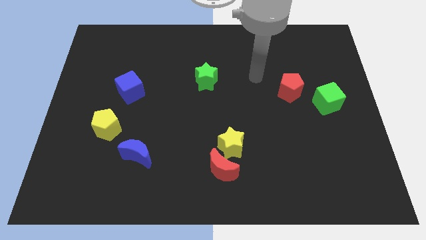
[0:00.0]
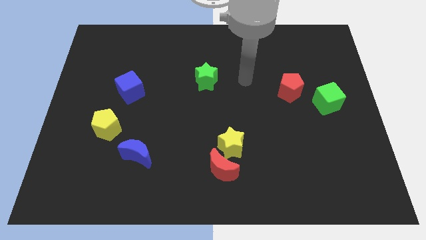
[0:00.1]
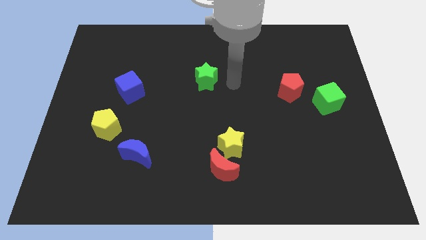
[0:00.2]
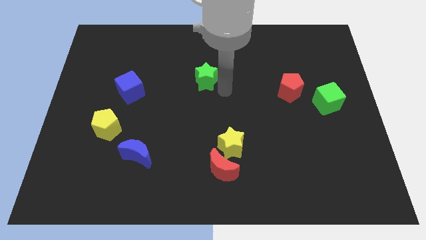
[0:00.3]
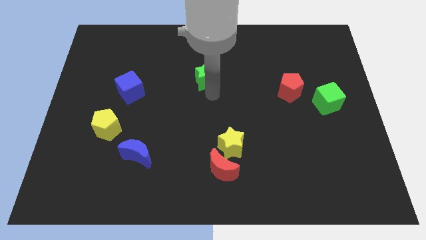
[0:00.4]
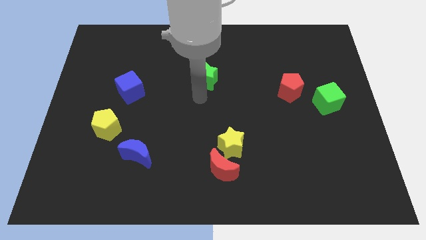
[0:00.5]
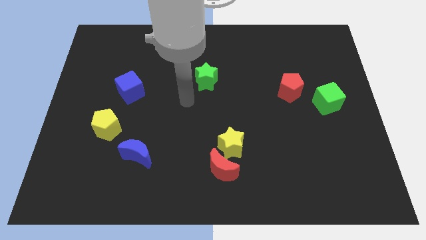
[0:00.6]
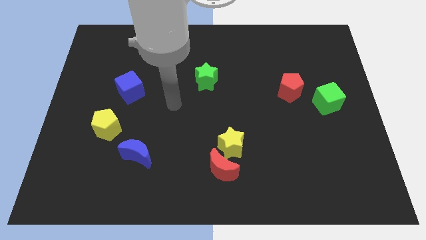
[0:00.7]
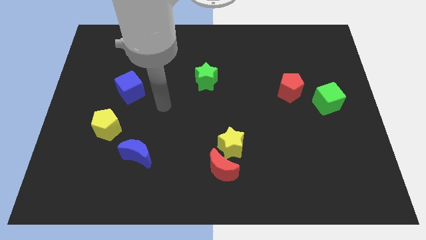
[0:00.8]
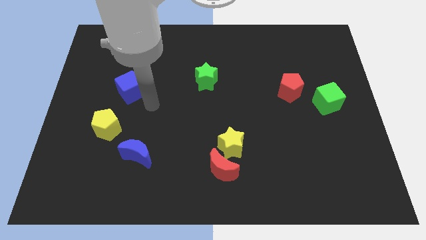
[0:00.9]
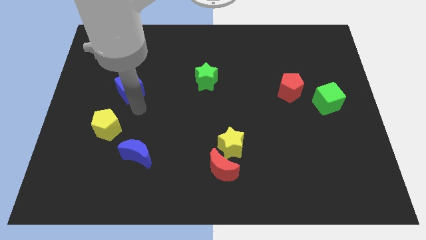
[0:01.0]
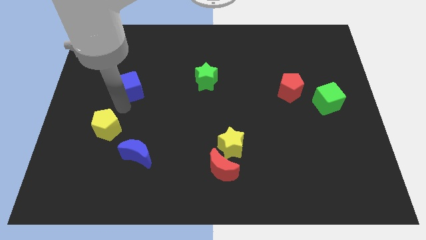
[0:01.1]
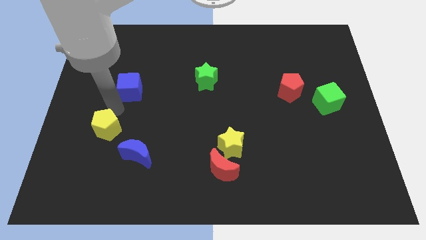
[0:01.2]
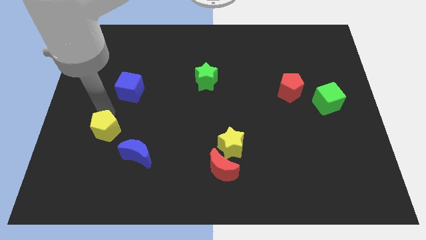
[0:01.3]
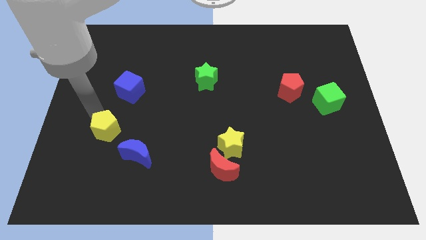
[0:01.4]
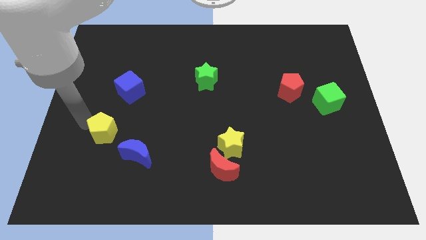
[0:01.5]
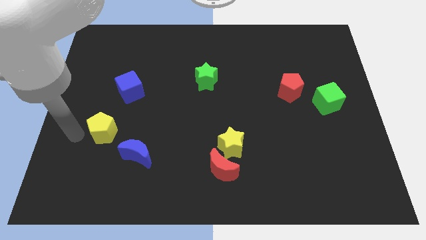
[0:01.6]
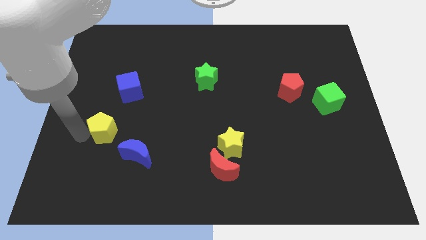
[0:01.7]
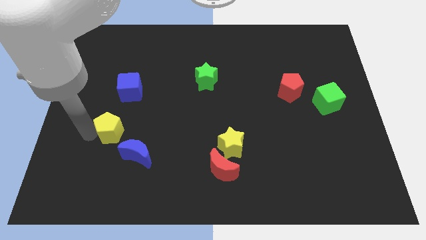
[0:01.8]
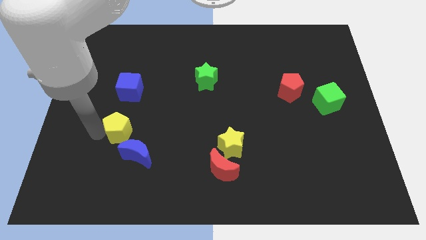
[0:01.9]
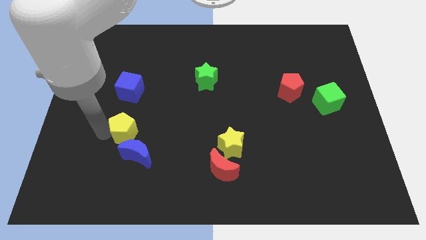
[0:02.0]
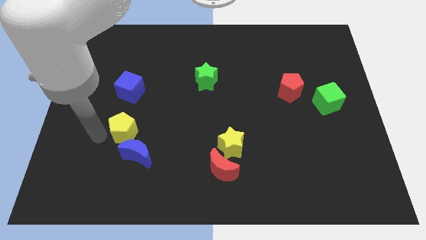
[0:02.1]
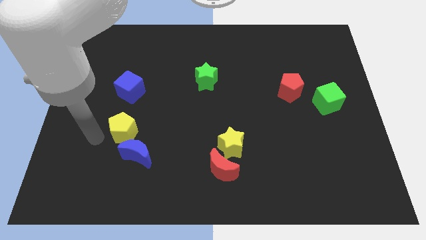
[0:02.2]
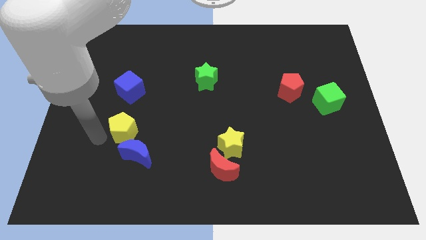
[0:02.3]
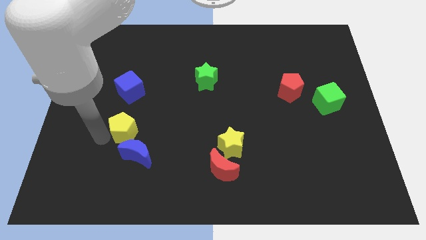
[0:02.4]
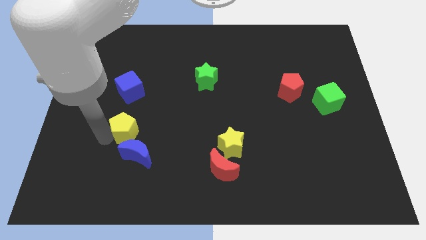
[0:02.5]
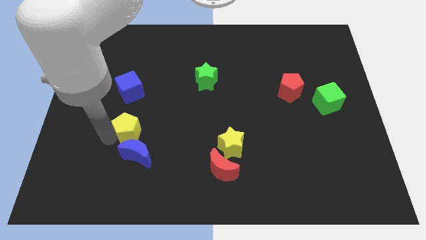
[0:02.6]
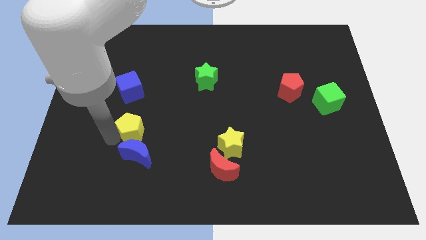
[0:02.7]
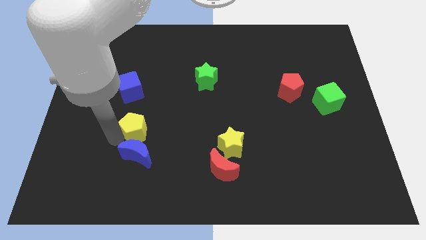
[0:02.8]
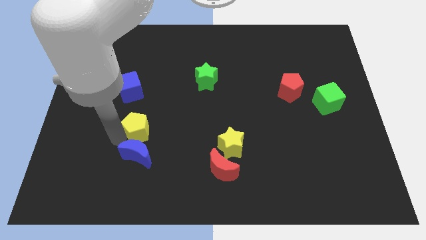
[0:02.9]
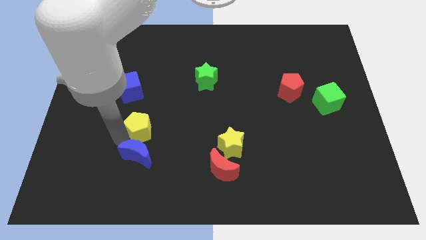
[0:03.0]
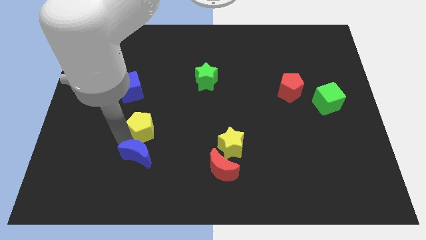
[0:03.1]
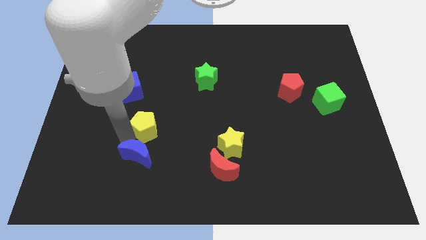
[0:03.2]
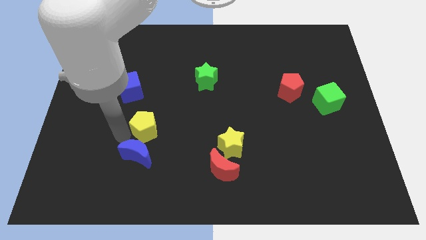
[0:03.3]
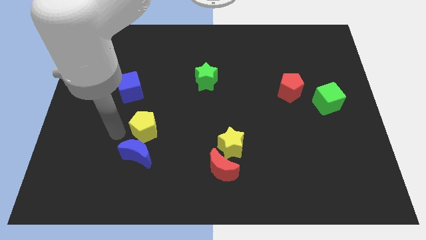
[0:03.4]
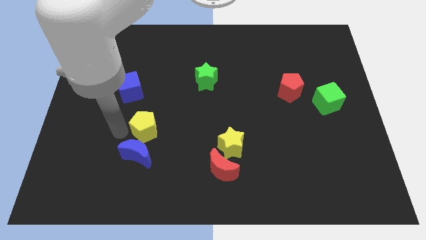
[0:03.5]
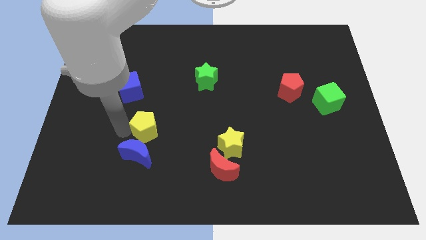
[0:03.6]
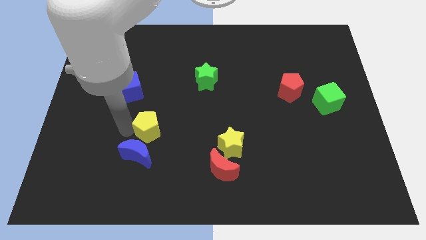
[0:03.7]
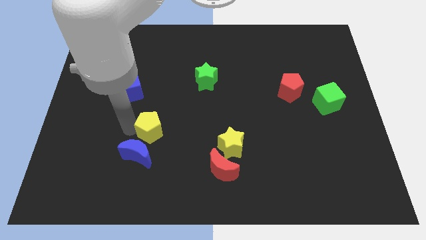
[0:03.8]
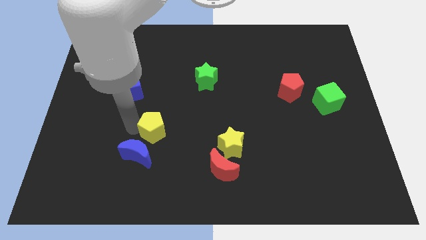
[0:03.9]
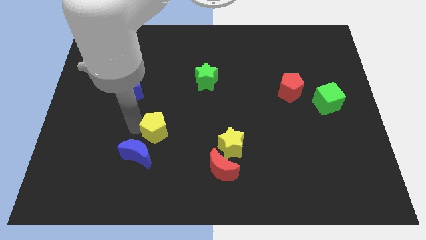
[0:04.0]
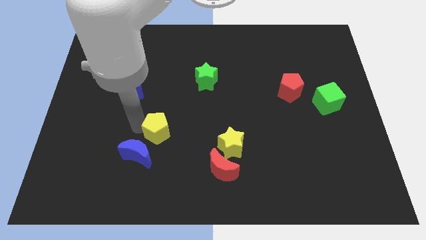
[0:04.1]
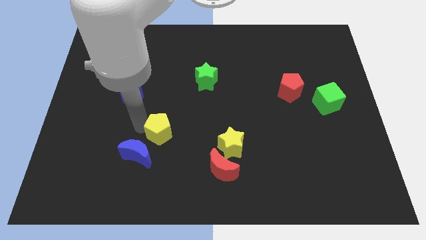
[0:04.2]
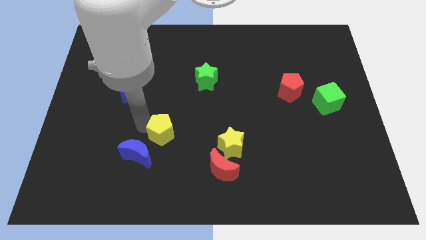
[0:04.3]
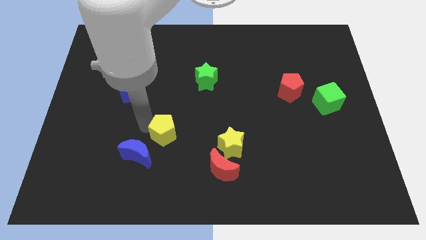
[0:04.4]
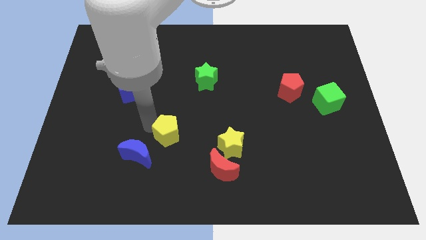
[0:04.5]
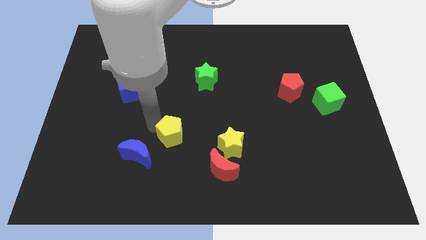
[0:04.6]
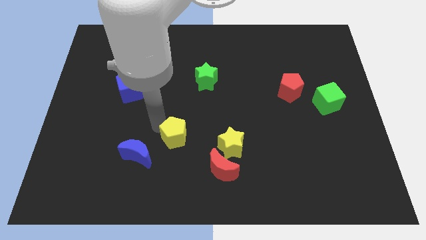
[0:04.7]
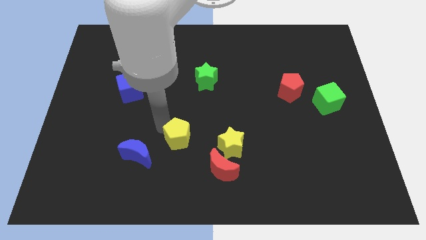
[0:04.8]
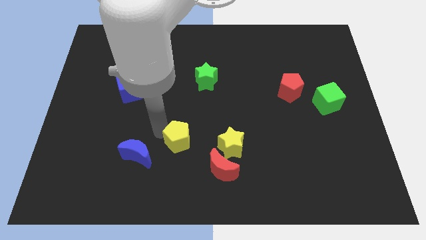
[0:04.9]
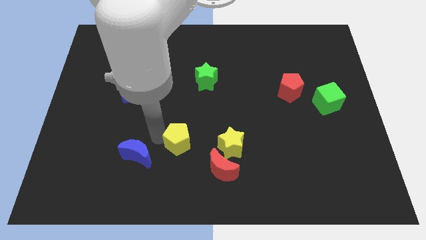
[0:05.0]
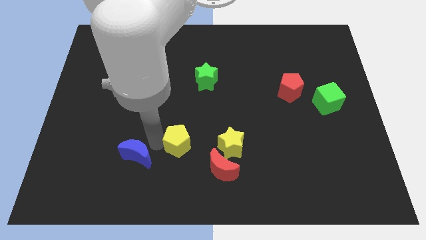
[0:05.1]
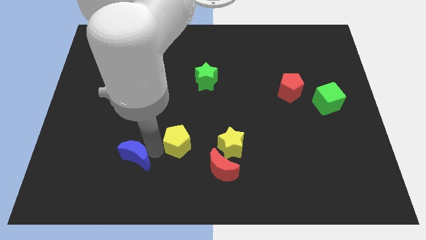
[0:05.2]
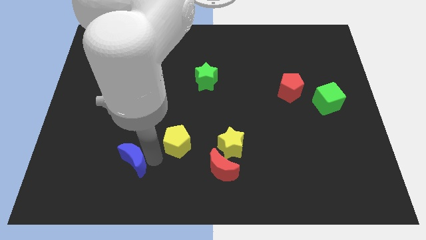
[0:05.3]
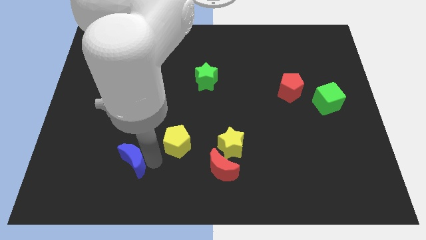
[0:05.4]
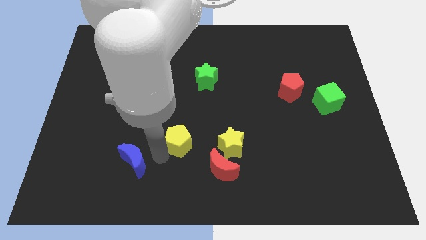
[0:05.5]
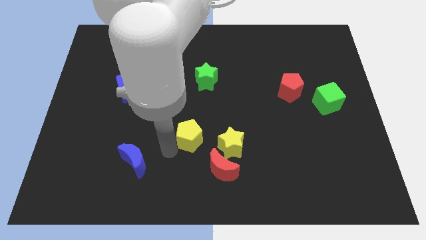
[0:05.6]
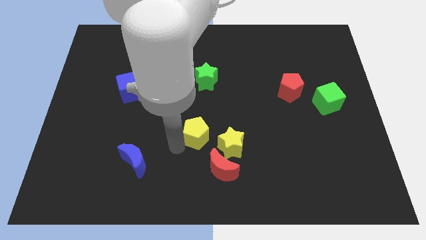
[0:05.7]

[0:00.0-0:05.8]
move the yellow pentagon to the right

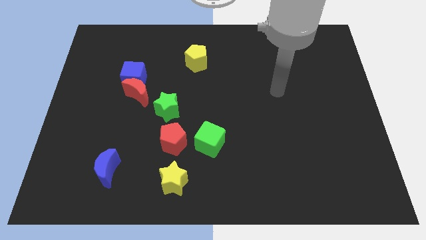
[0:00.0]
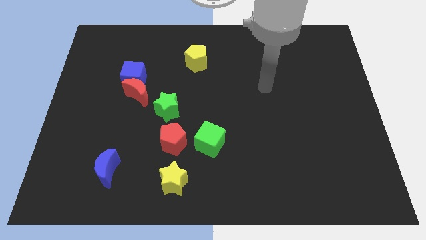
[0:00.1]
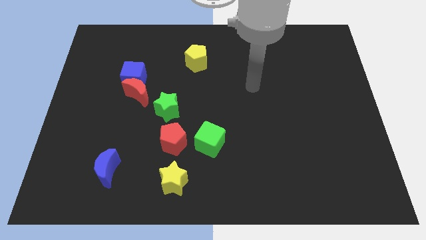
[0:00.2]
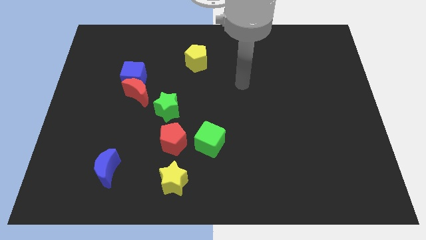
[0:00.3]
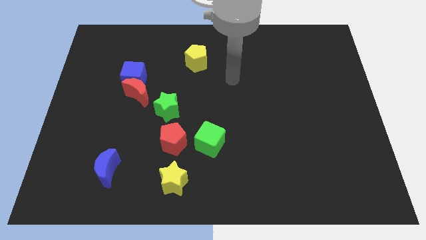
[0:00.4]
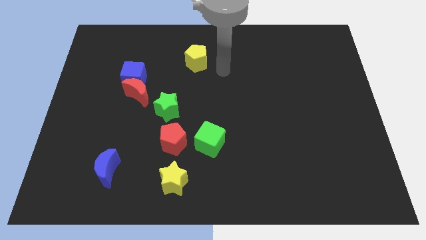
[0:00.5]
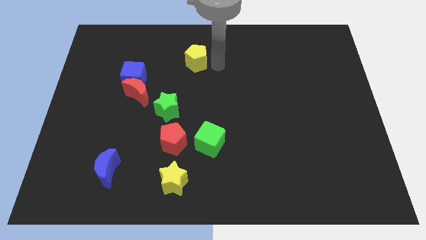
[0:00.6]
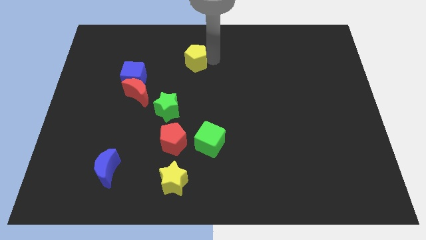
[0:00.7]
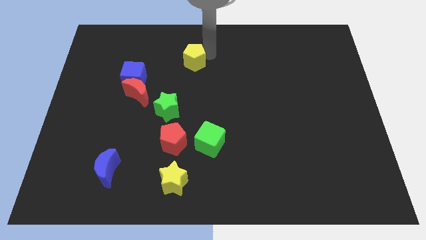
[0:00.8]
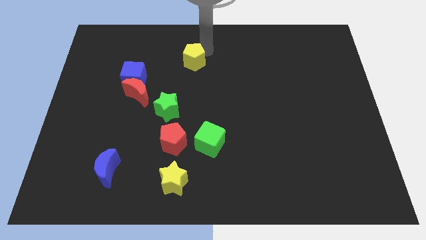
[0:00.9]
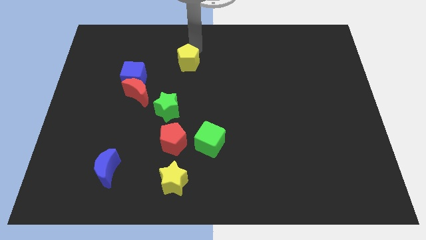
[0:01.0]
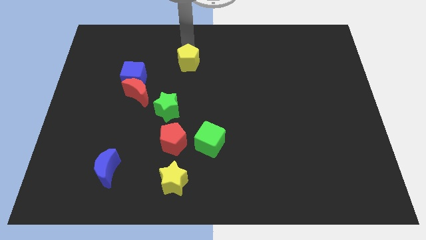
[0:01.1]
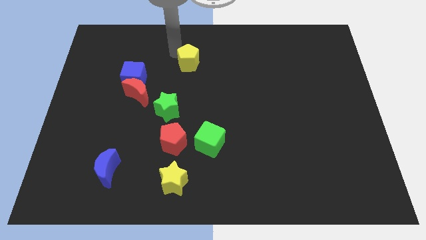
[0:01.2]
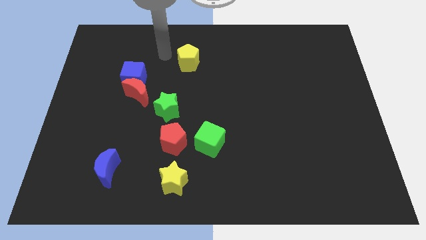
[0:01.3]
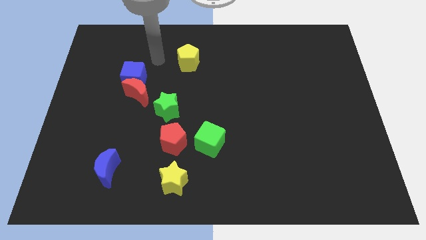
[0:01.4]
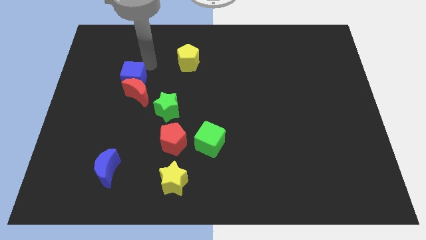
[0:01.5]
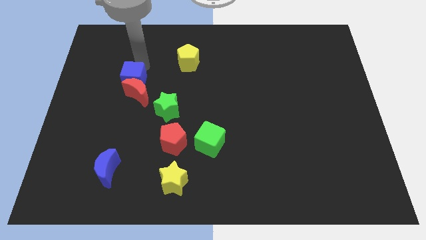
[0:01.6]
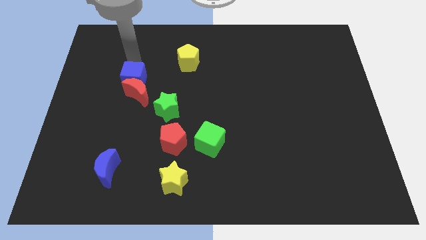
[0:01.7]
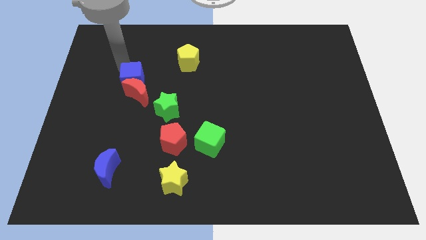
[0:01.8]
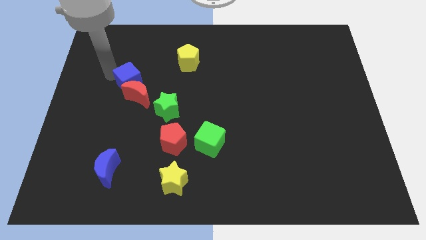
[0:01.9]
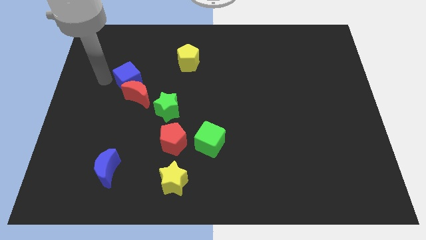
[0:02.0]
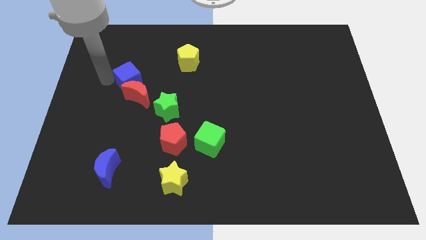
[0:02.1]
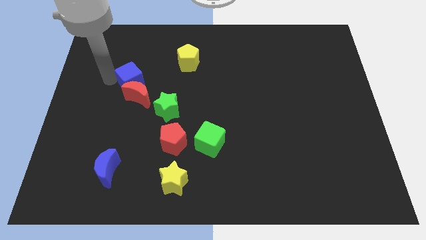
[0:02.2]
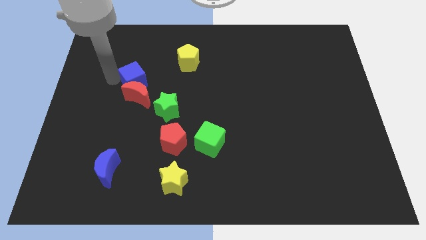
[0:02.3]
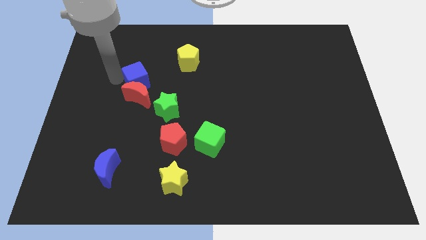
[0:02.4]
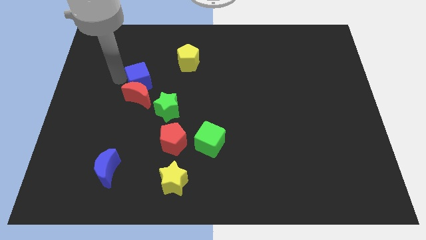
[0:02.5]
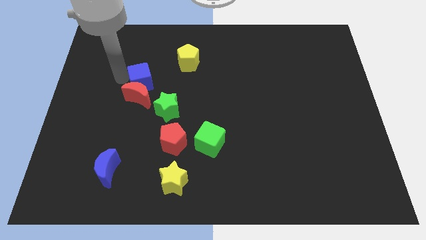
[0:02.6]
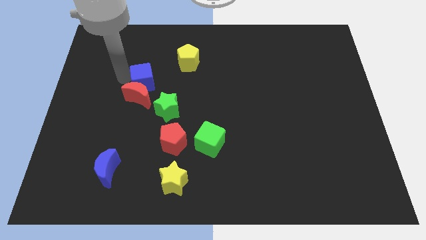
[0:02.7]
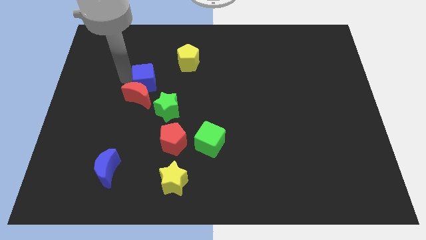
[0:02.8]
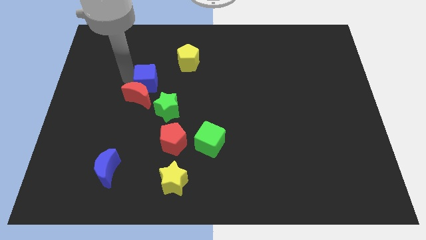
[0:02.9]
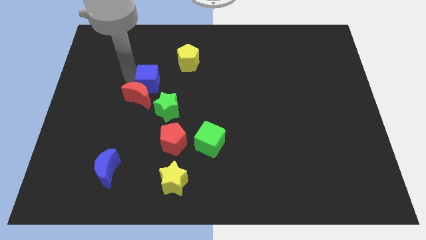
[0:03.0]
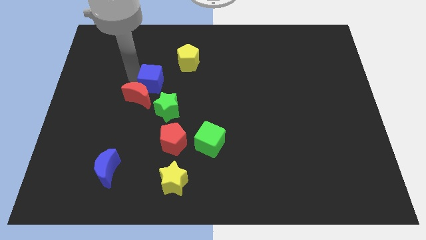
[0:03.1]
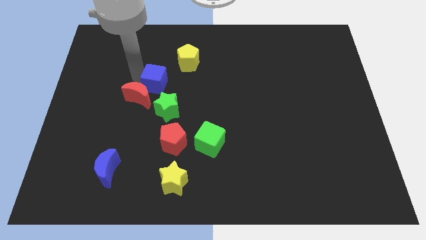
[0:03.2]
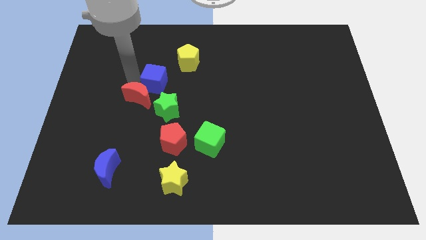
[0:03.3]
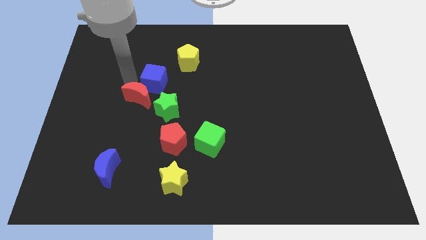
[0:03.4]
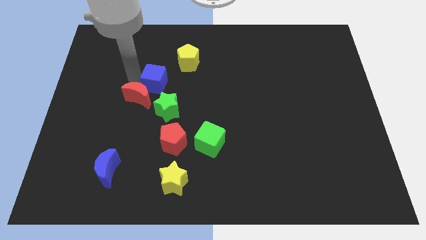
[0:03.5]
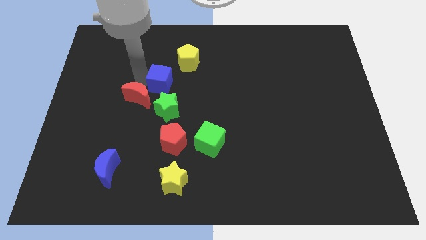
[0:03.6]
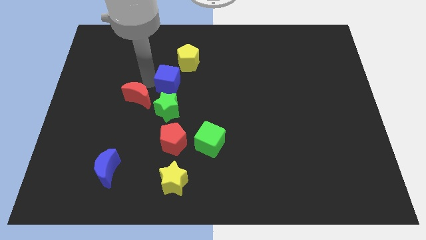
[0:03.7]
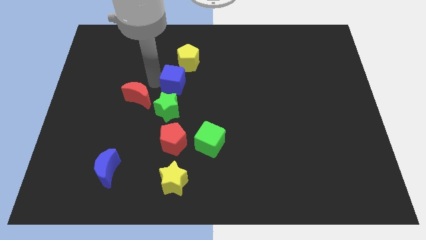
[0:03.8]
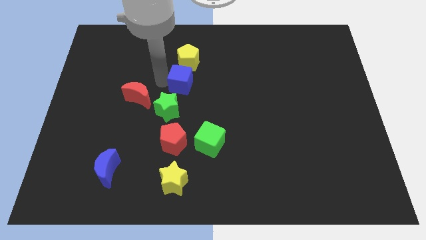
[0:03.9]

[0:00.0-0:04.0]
slightly push the blue cube downwards and right diagonally
